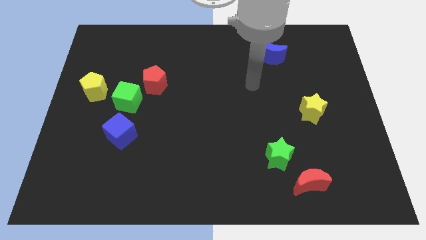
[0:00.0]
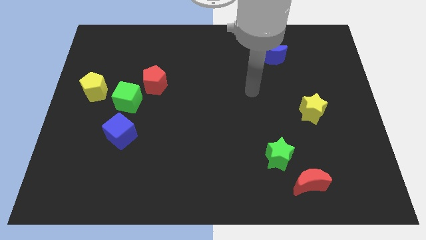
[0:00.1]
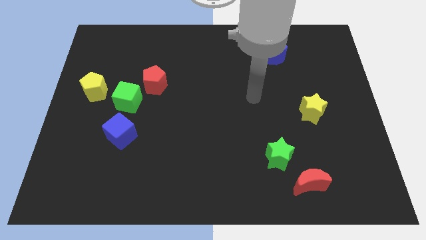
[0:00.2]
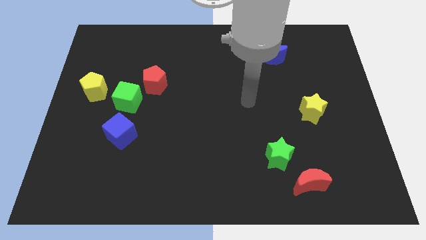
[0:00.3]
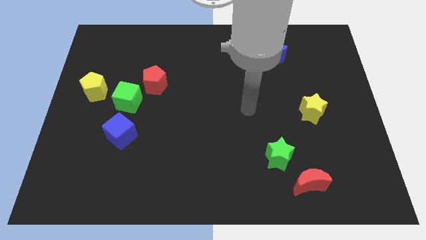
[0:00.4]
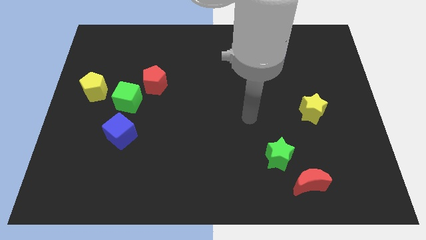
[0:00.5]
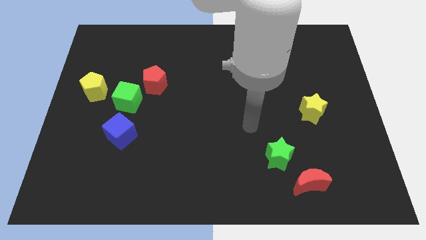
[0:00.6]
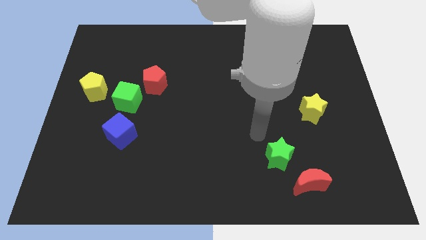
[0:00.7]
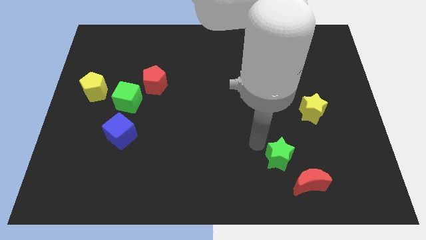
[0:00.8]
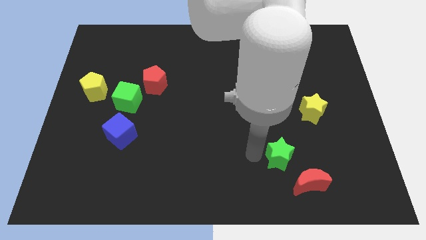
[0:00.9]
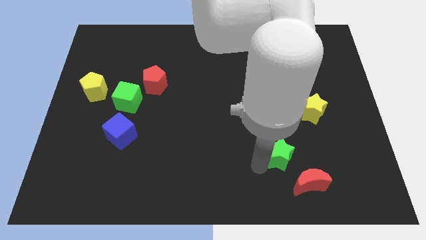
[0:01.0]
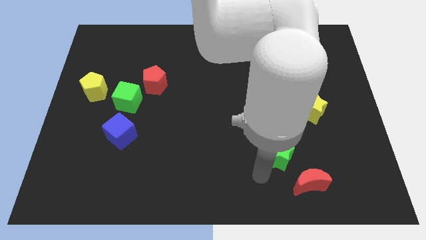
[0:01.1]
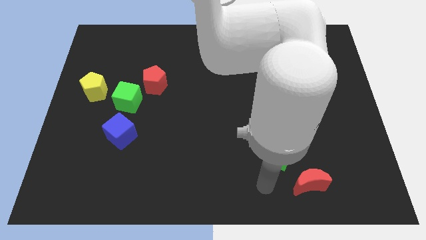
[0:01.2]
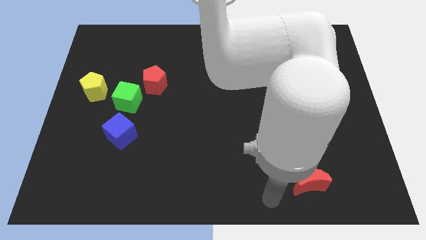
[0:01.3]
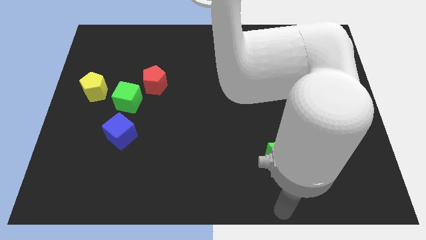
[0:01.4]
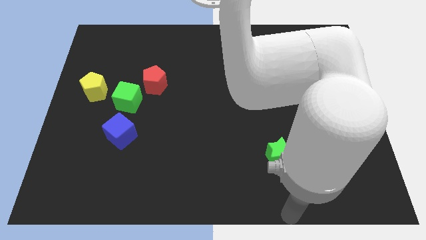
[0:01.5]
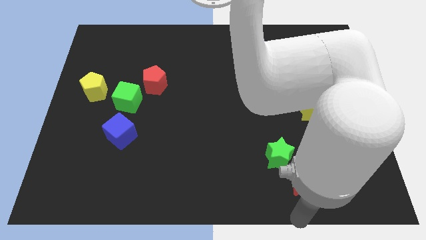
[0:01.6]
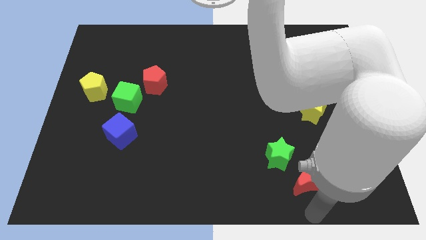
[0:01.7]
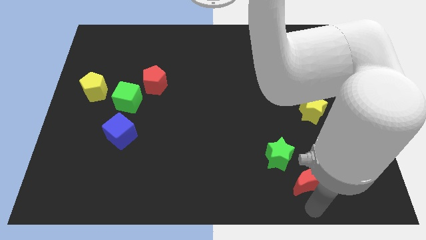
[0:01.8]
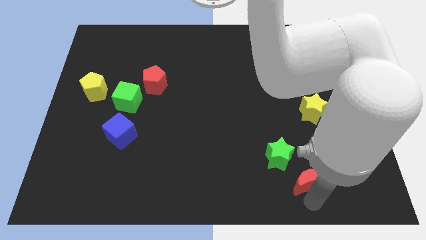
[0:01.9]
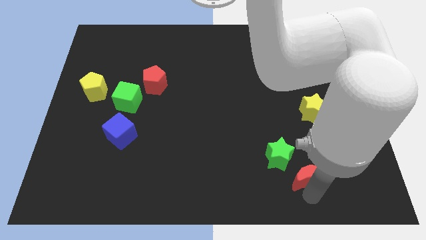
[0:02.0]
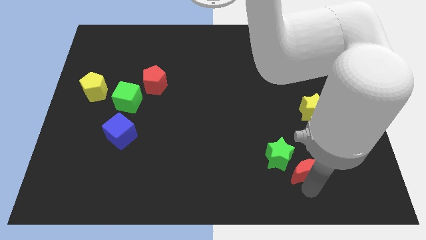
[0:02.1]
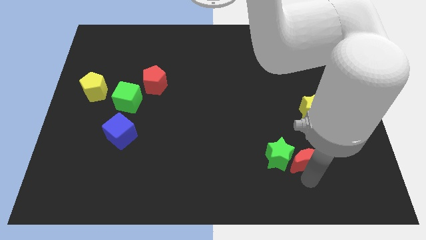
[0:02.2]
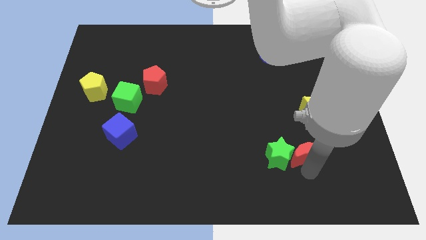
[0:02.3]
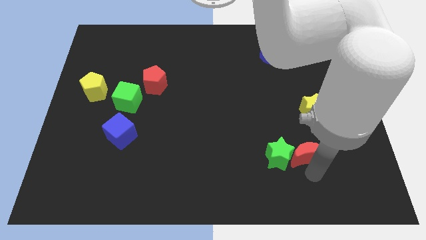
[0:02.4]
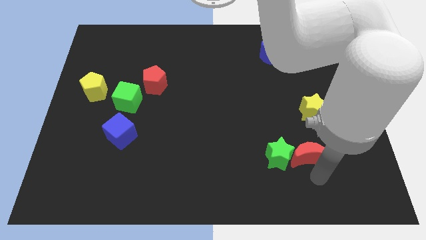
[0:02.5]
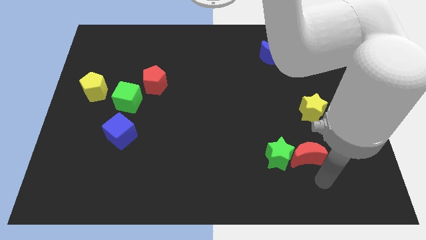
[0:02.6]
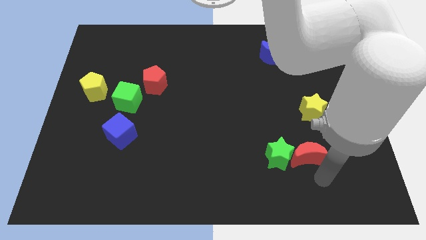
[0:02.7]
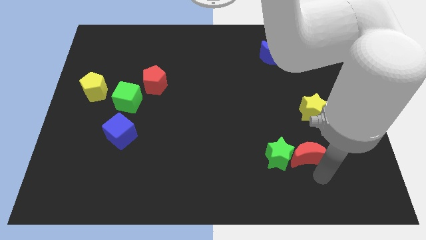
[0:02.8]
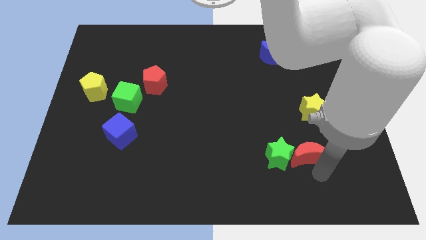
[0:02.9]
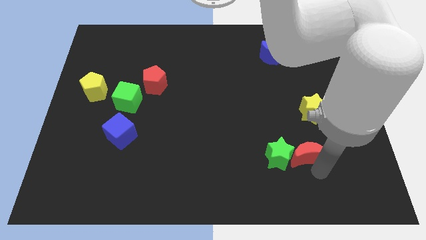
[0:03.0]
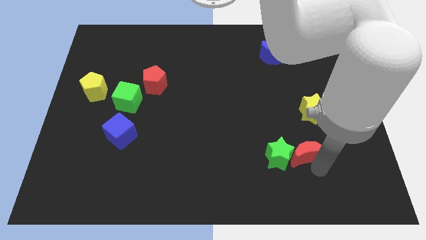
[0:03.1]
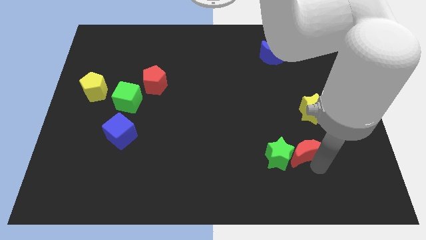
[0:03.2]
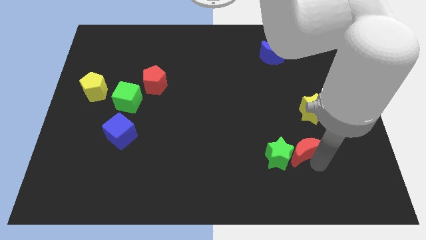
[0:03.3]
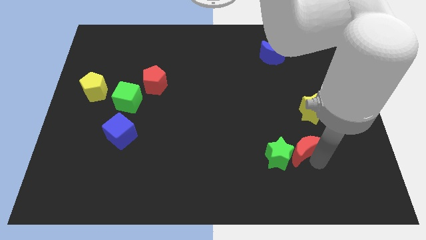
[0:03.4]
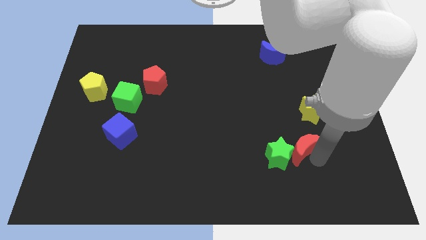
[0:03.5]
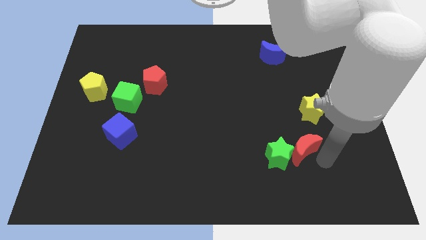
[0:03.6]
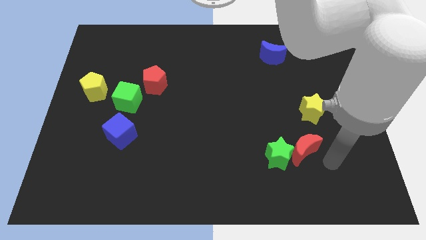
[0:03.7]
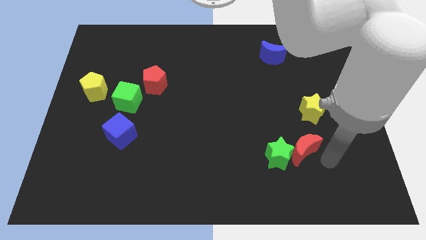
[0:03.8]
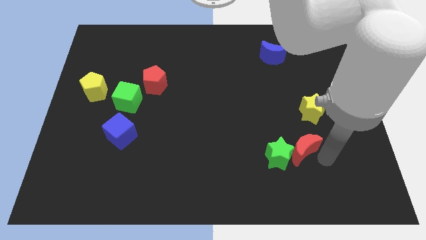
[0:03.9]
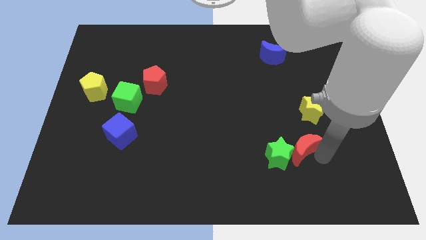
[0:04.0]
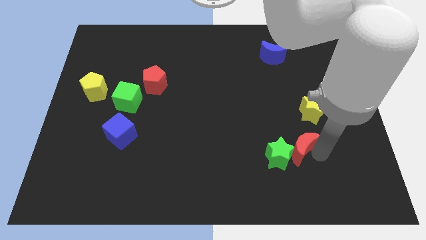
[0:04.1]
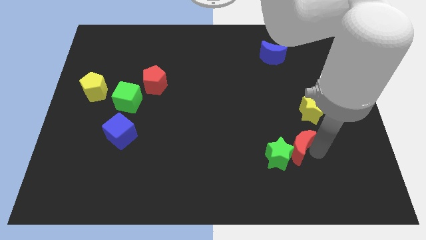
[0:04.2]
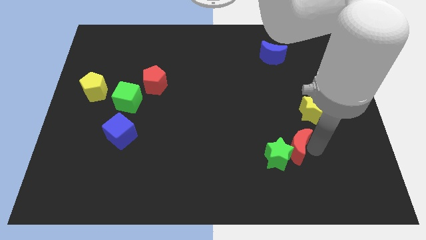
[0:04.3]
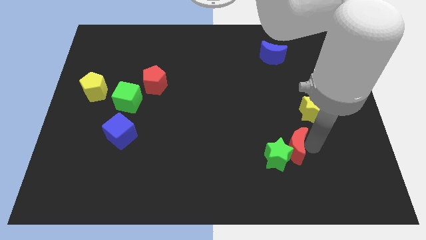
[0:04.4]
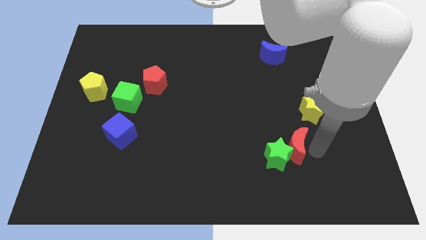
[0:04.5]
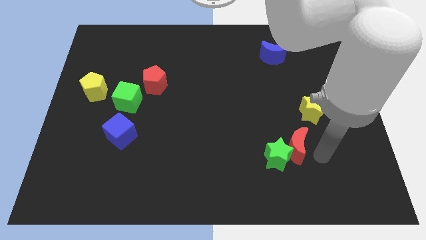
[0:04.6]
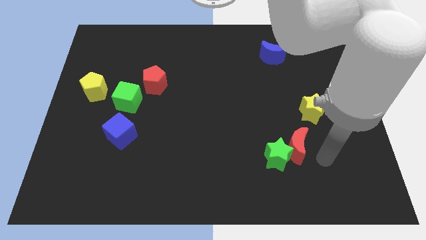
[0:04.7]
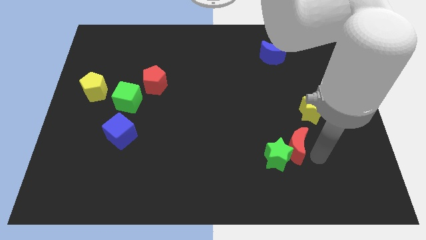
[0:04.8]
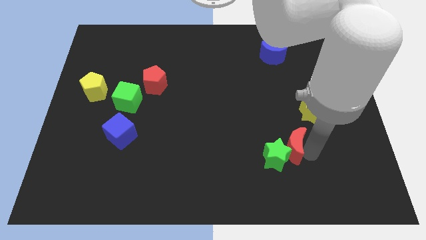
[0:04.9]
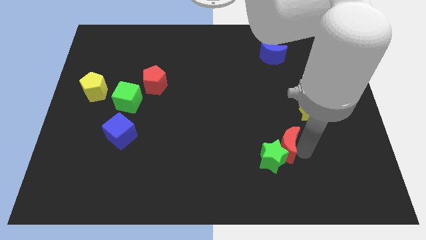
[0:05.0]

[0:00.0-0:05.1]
slightly push the red moon up and left

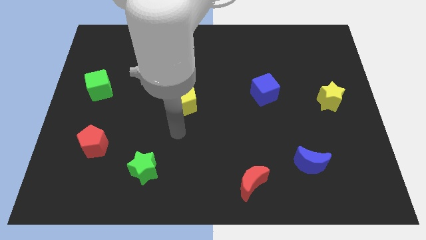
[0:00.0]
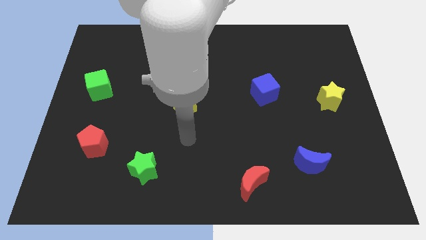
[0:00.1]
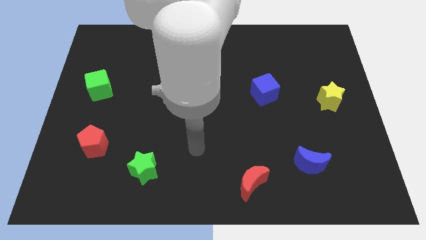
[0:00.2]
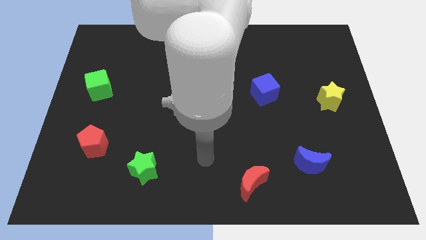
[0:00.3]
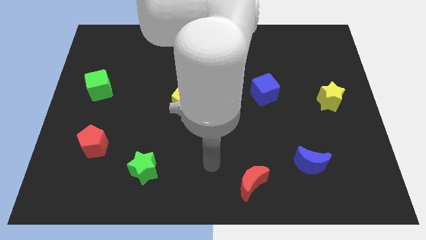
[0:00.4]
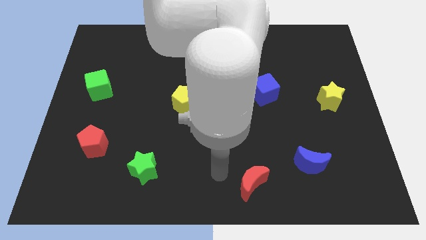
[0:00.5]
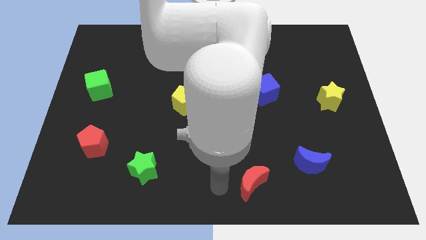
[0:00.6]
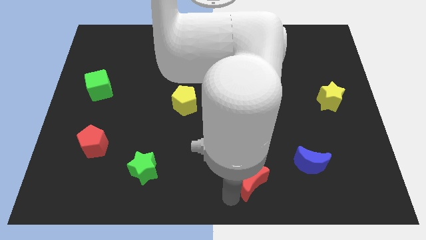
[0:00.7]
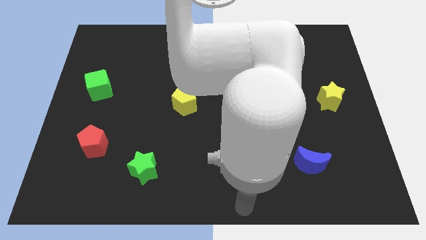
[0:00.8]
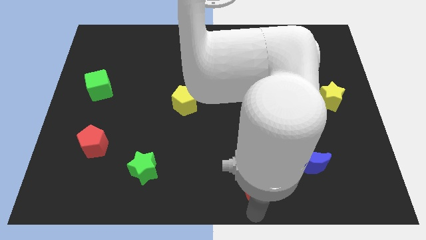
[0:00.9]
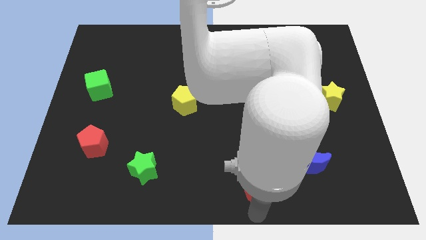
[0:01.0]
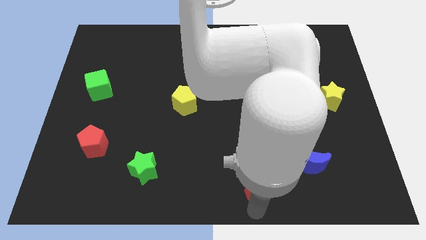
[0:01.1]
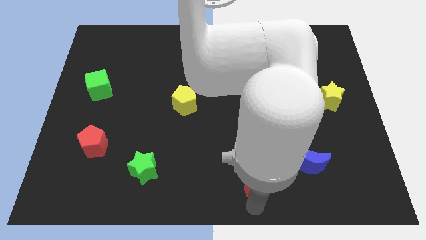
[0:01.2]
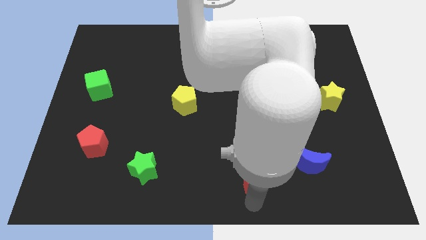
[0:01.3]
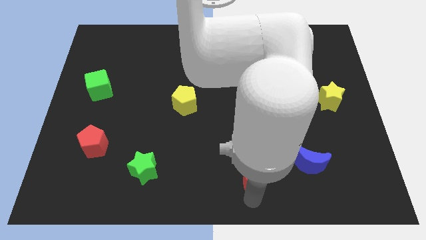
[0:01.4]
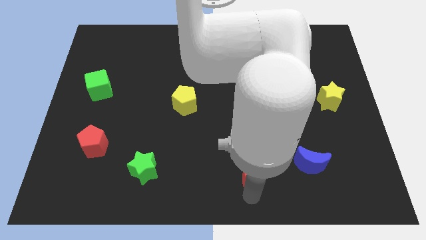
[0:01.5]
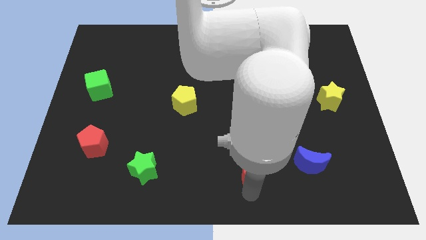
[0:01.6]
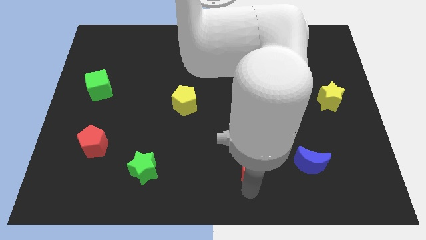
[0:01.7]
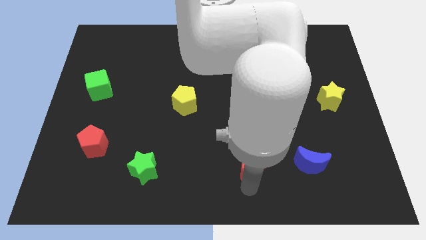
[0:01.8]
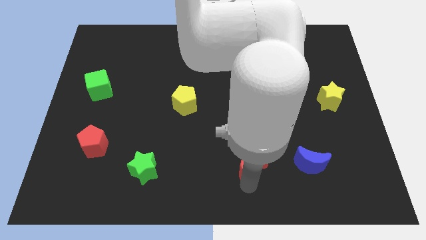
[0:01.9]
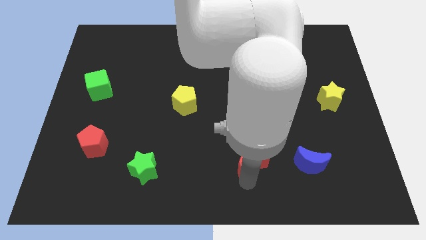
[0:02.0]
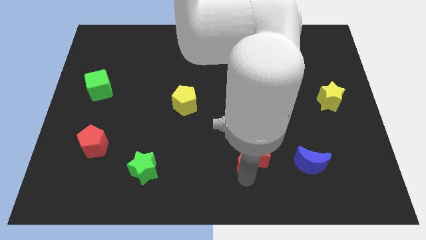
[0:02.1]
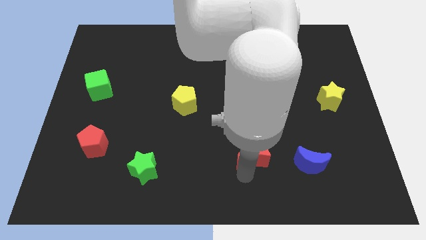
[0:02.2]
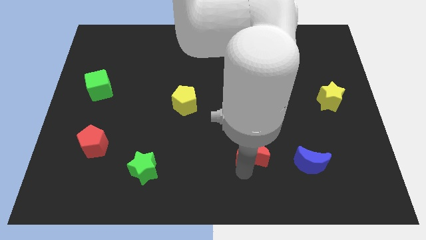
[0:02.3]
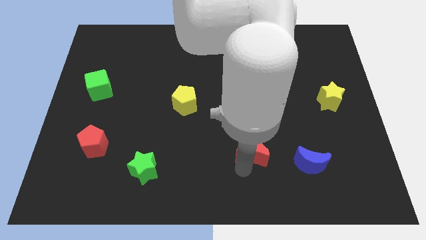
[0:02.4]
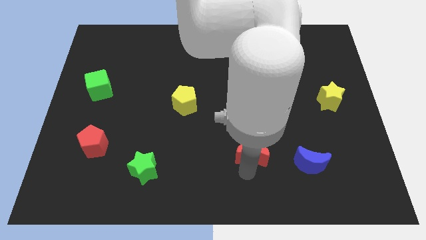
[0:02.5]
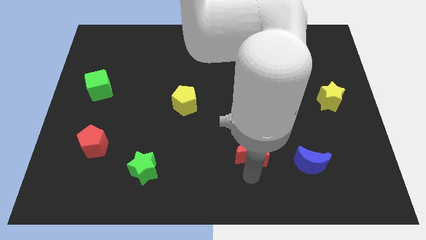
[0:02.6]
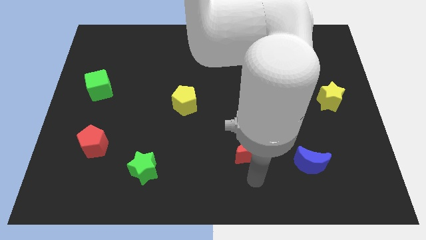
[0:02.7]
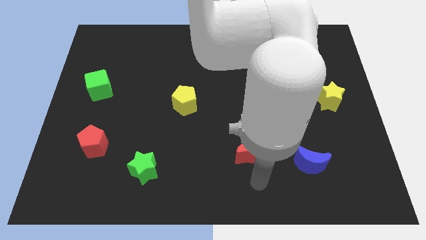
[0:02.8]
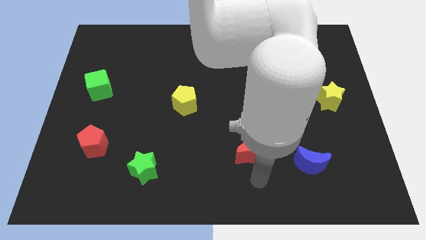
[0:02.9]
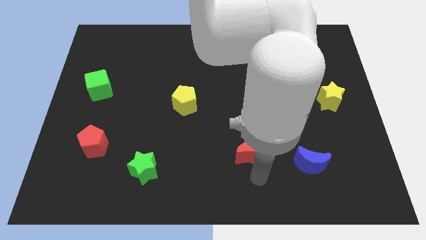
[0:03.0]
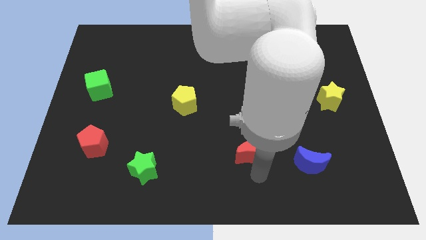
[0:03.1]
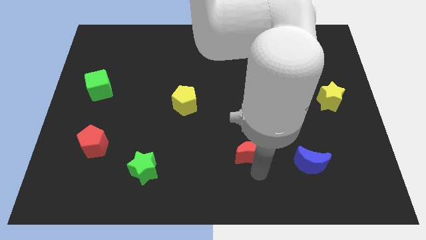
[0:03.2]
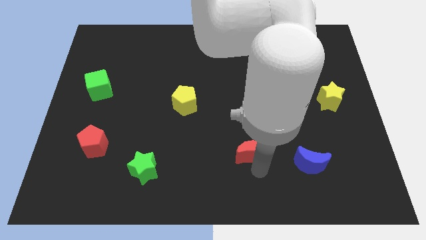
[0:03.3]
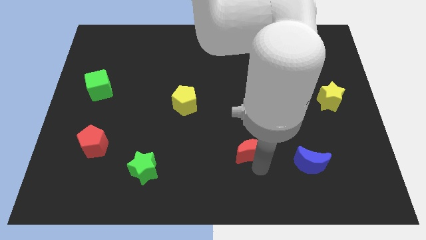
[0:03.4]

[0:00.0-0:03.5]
push the red moon upwards a little
